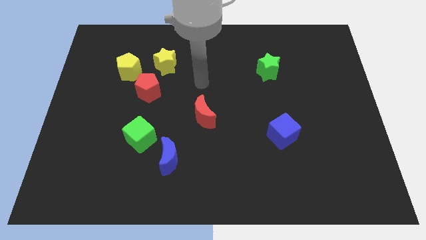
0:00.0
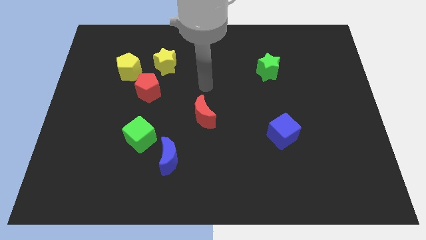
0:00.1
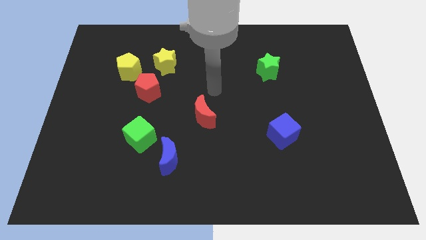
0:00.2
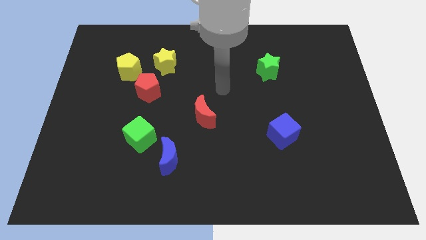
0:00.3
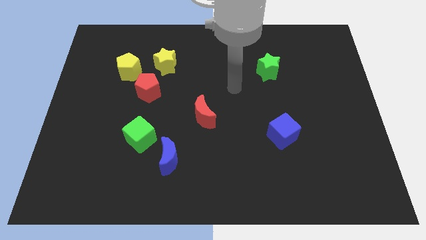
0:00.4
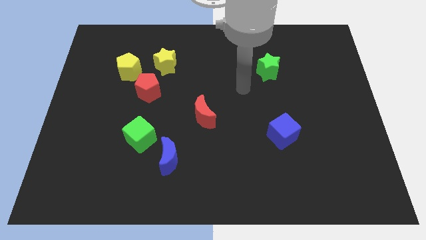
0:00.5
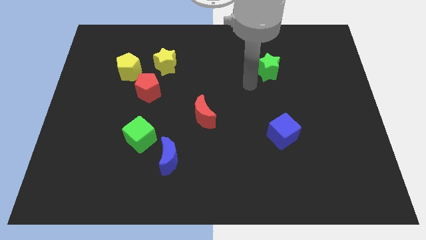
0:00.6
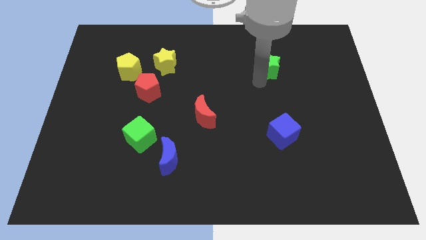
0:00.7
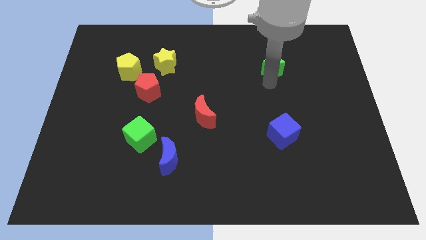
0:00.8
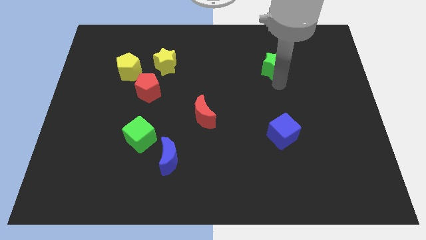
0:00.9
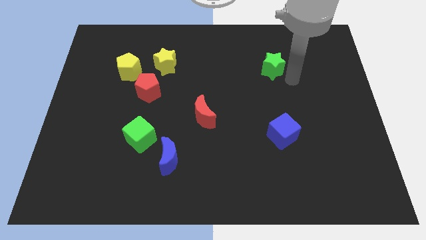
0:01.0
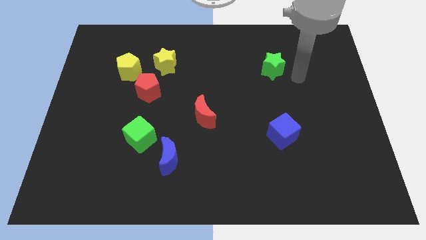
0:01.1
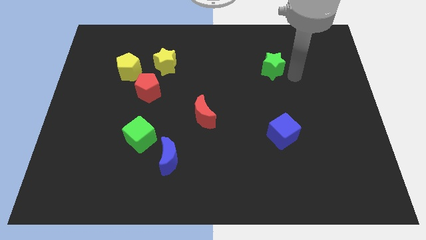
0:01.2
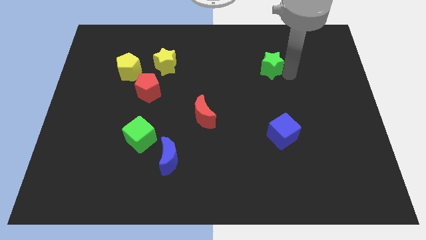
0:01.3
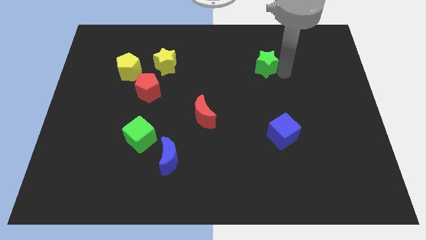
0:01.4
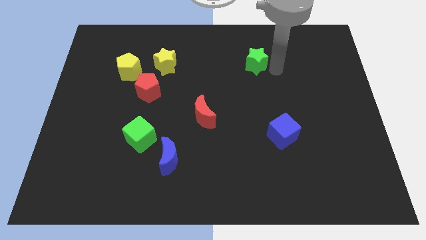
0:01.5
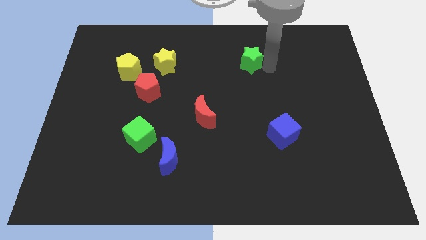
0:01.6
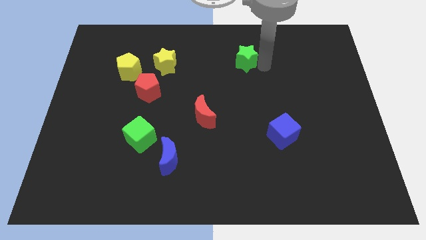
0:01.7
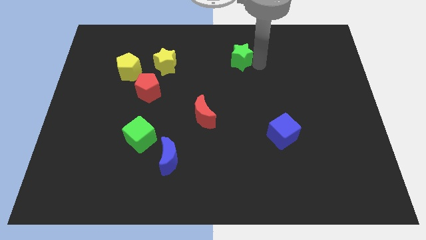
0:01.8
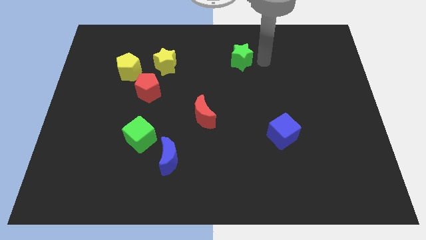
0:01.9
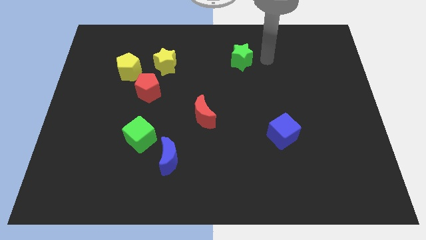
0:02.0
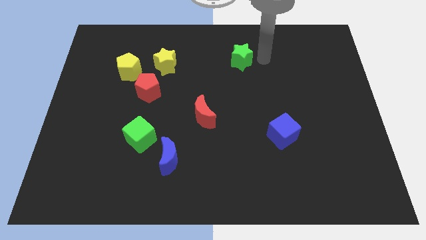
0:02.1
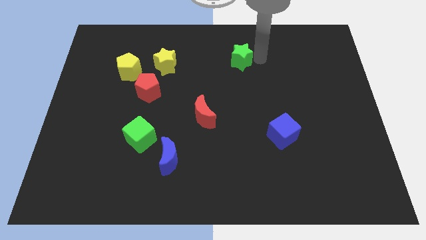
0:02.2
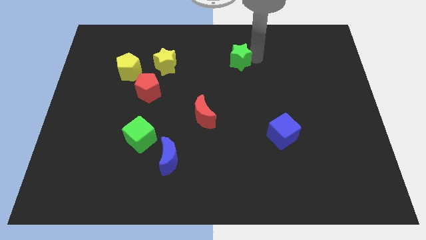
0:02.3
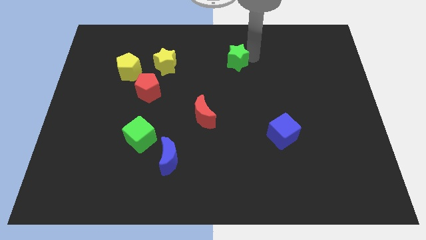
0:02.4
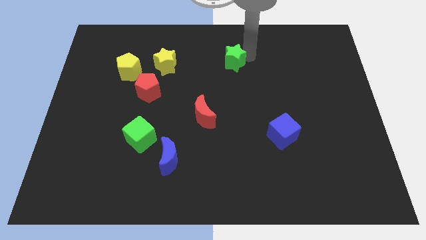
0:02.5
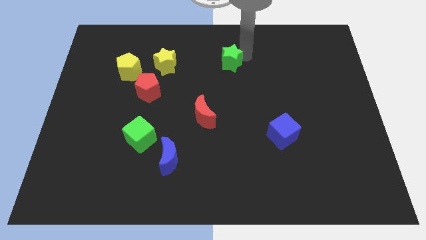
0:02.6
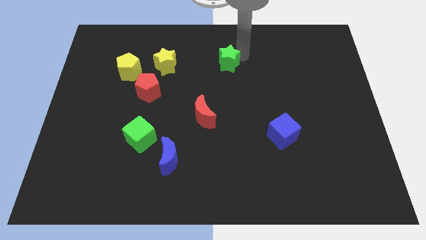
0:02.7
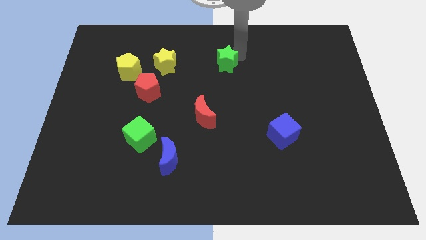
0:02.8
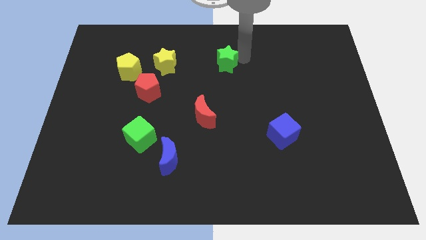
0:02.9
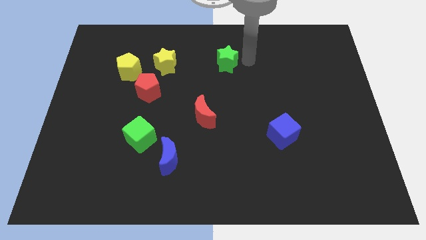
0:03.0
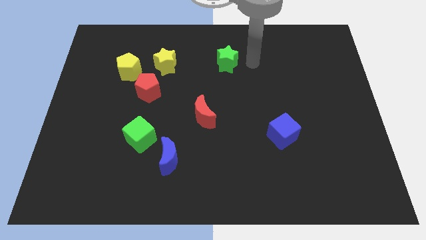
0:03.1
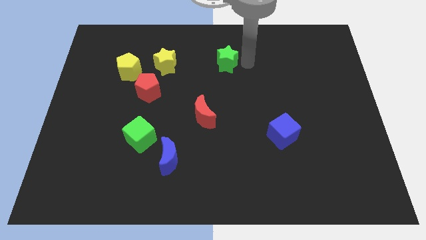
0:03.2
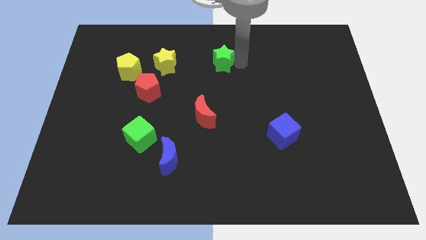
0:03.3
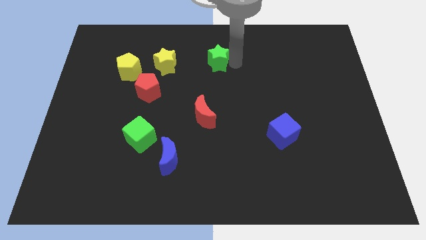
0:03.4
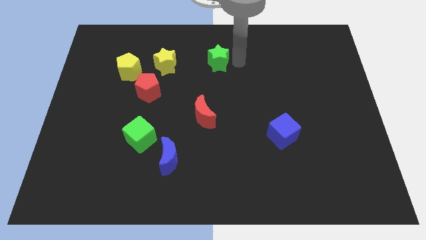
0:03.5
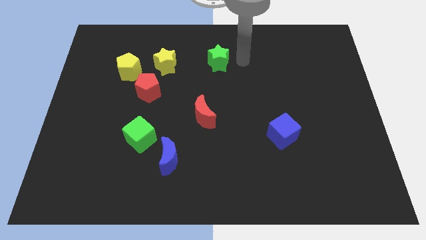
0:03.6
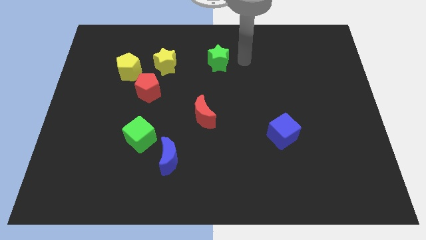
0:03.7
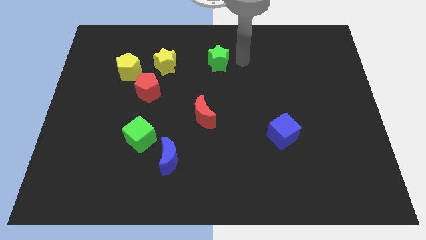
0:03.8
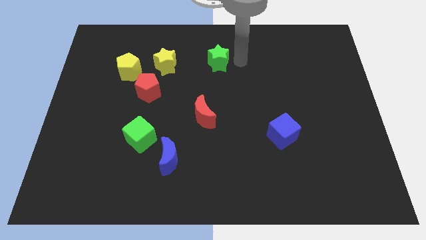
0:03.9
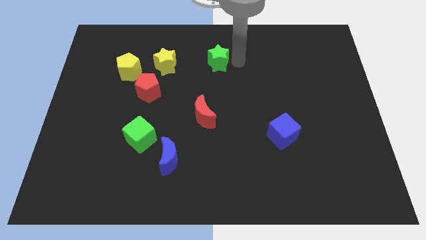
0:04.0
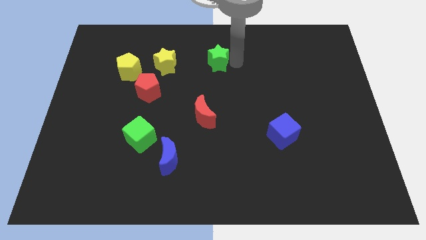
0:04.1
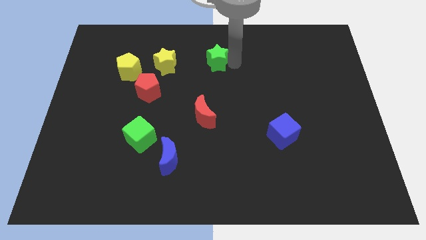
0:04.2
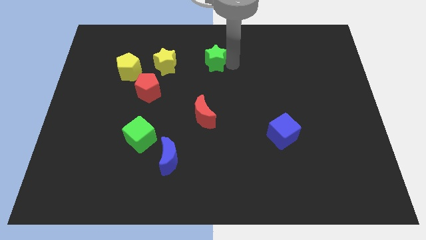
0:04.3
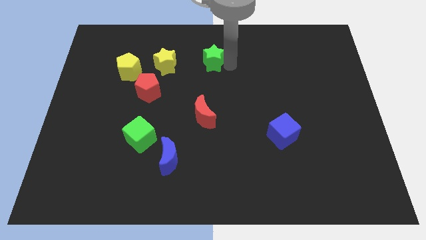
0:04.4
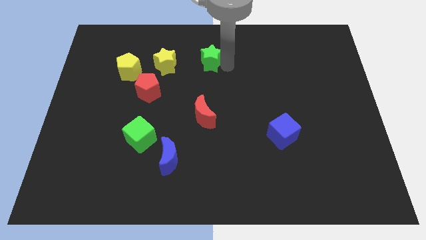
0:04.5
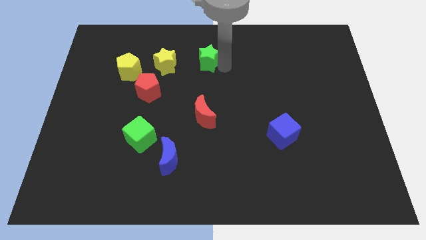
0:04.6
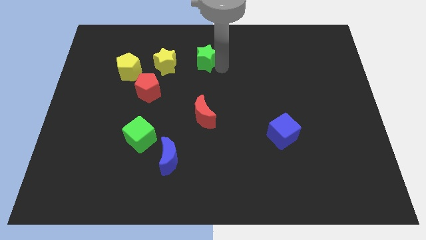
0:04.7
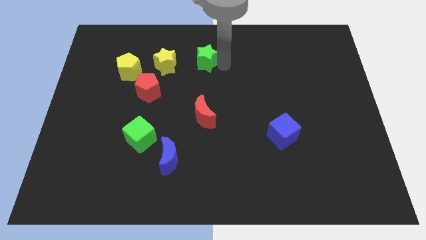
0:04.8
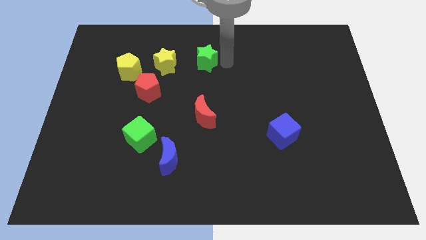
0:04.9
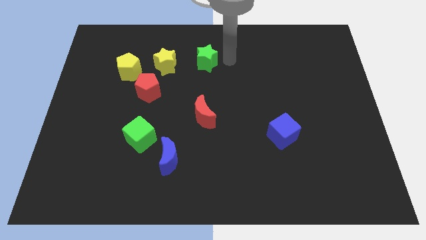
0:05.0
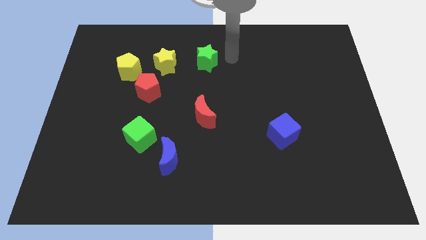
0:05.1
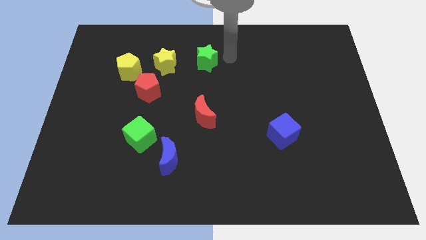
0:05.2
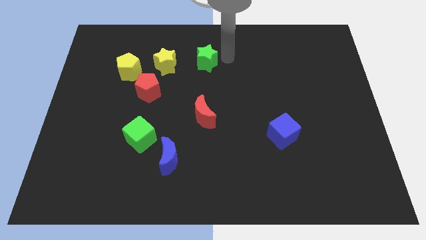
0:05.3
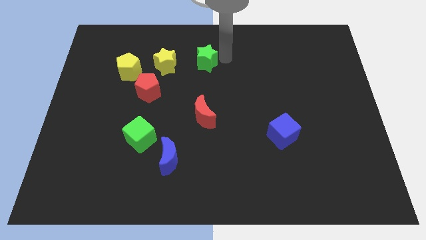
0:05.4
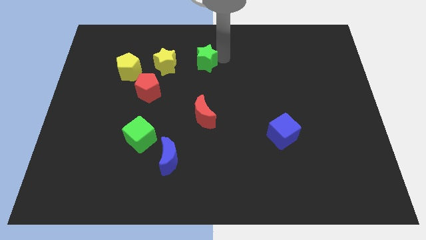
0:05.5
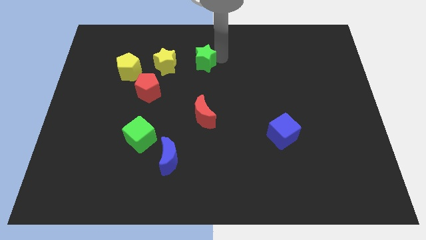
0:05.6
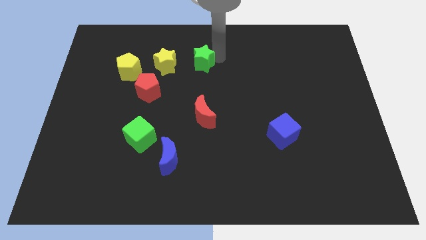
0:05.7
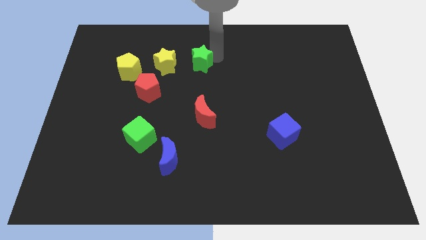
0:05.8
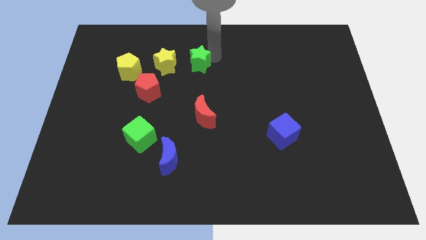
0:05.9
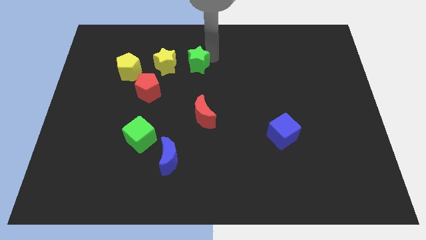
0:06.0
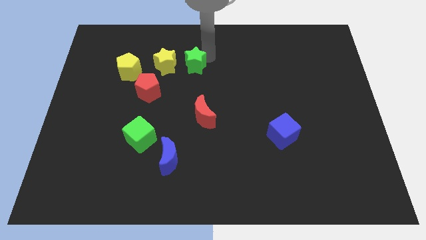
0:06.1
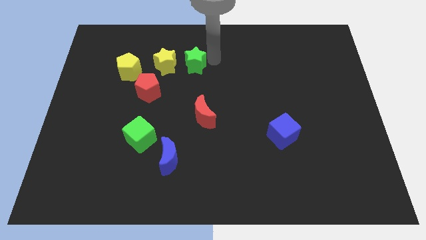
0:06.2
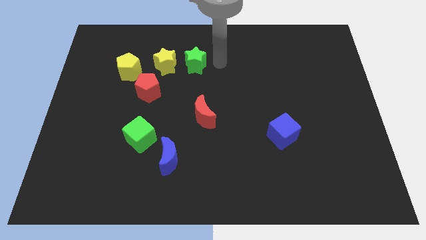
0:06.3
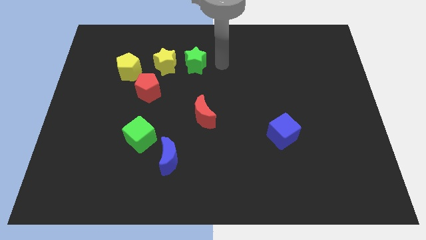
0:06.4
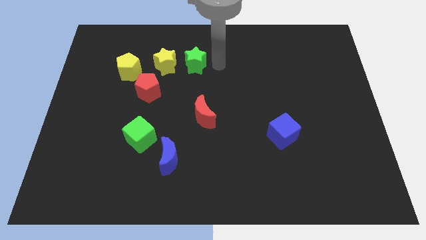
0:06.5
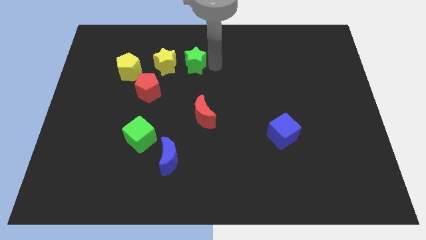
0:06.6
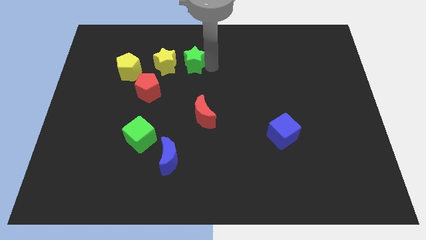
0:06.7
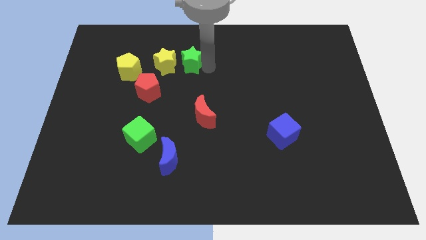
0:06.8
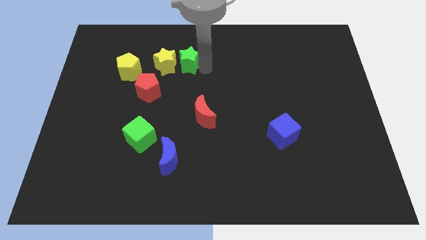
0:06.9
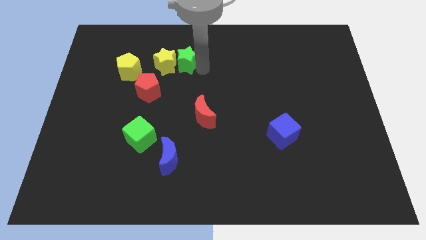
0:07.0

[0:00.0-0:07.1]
put the green star to the yellow star
